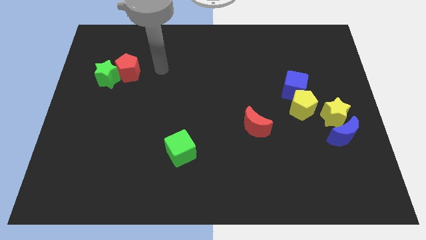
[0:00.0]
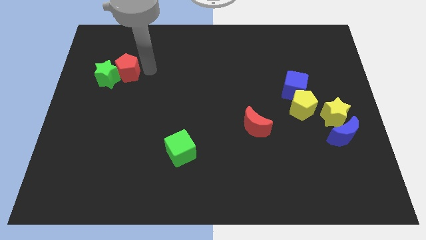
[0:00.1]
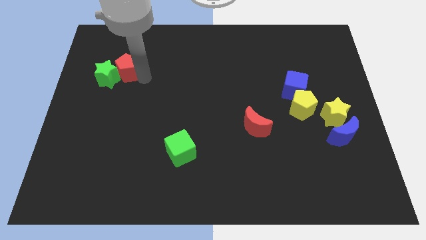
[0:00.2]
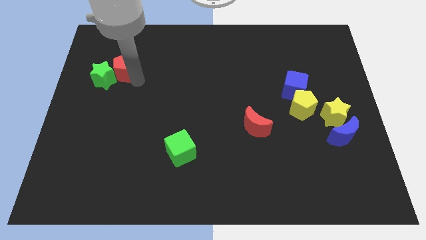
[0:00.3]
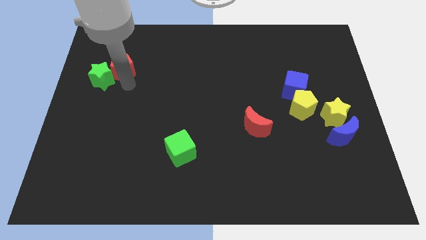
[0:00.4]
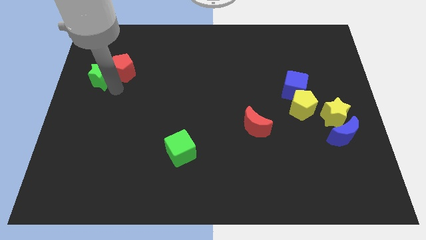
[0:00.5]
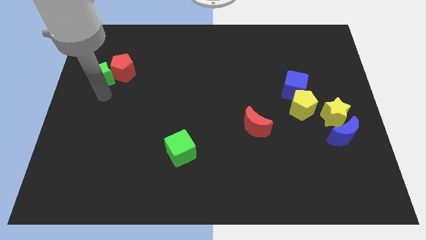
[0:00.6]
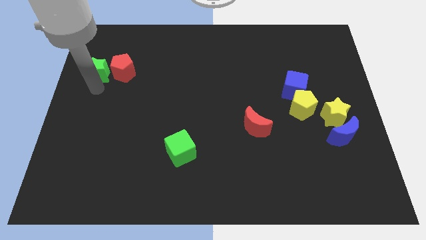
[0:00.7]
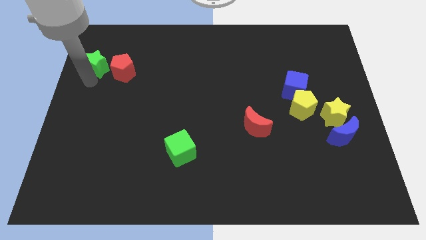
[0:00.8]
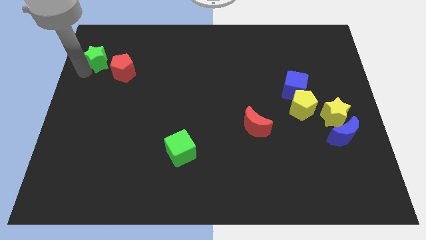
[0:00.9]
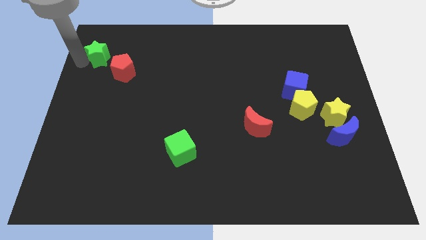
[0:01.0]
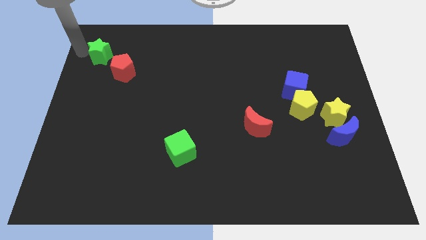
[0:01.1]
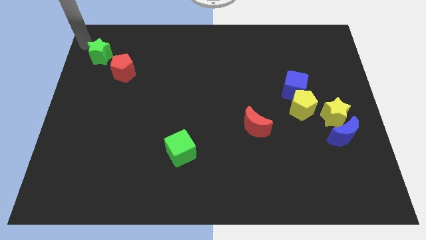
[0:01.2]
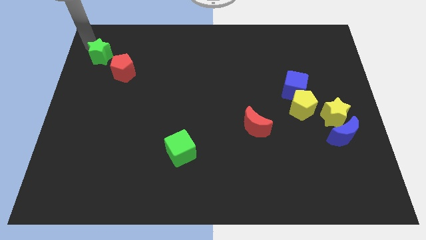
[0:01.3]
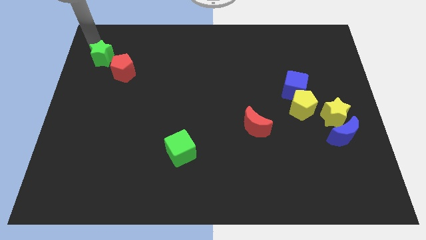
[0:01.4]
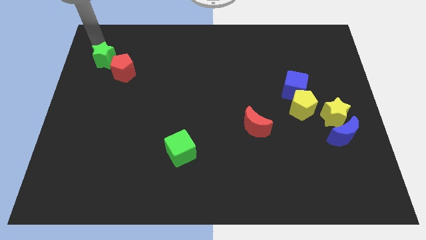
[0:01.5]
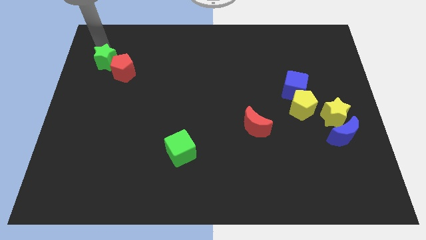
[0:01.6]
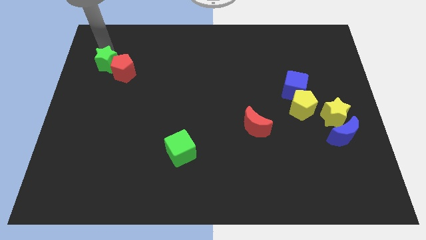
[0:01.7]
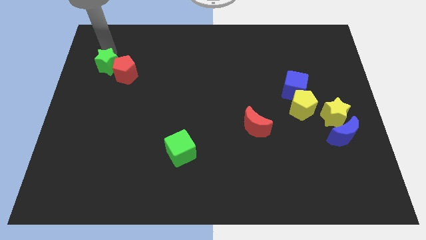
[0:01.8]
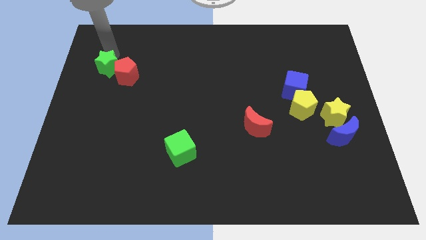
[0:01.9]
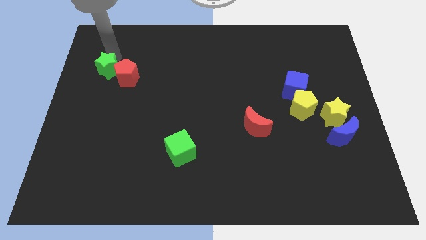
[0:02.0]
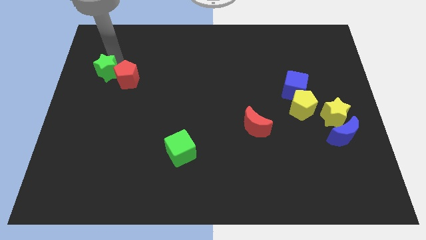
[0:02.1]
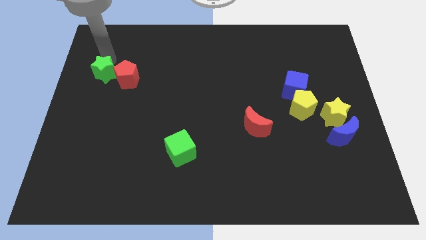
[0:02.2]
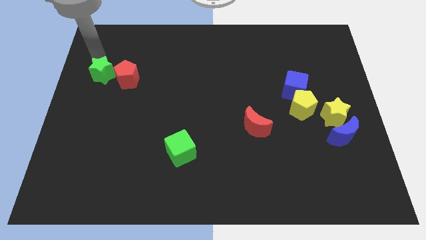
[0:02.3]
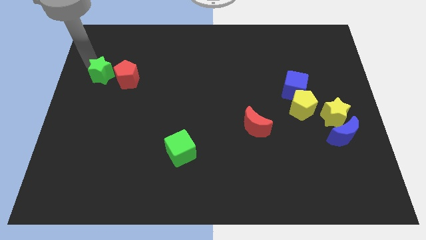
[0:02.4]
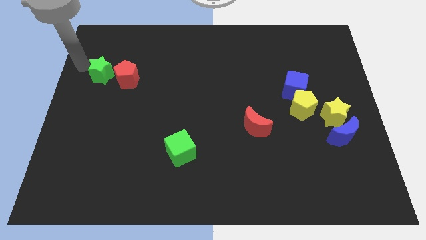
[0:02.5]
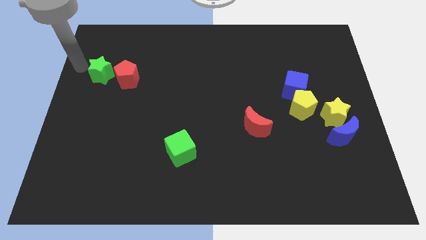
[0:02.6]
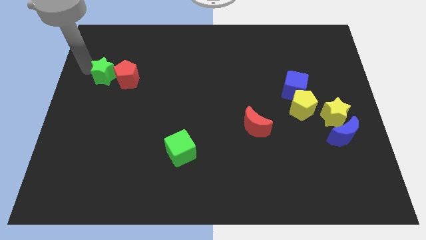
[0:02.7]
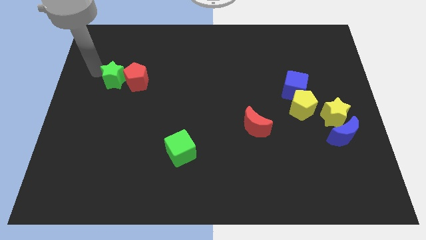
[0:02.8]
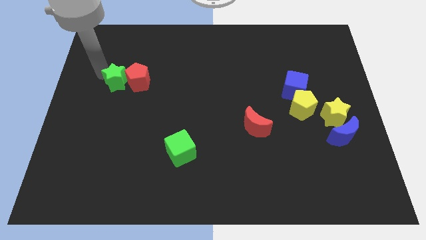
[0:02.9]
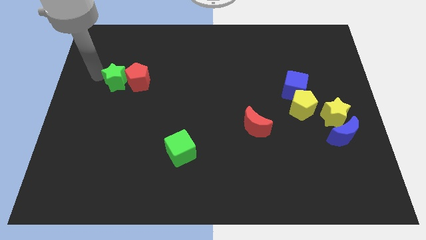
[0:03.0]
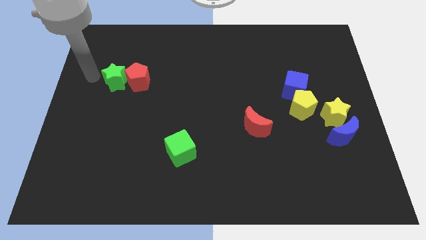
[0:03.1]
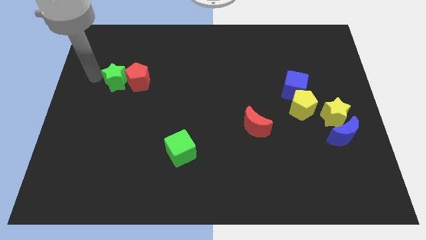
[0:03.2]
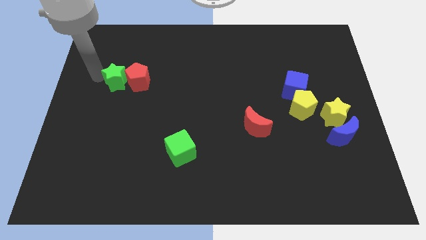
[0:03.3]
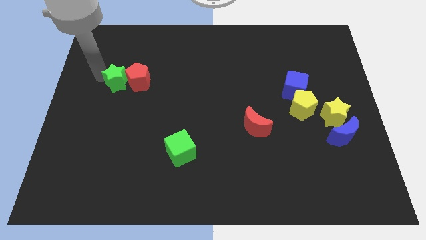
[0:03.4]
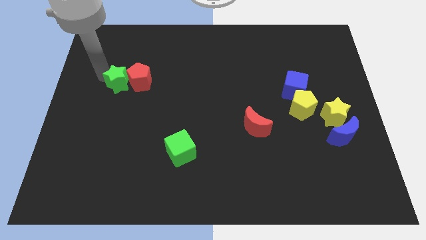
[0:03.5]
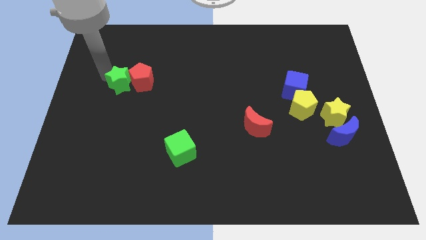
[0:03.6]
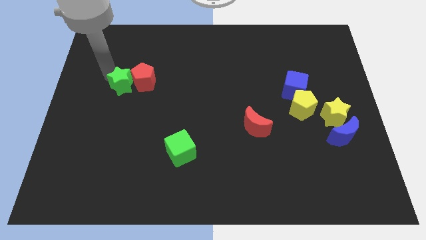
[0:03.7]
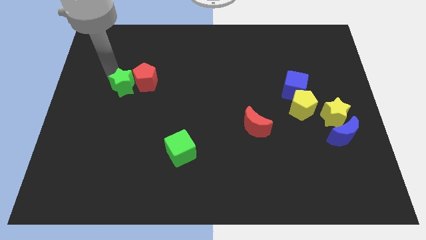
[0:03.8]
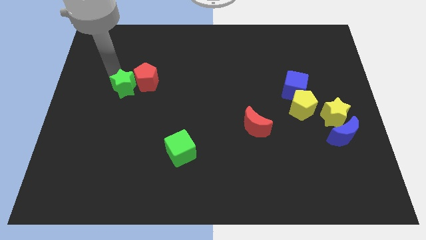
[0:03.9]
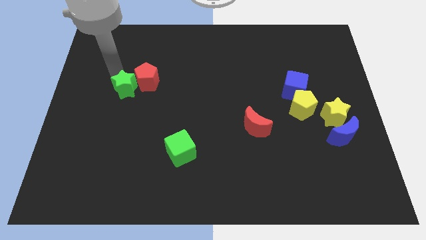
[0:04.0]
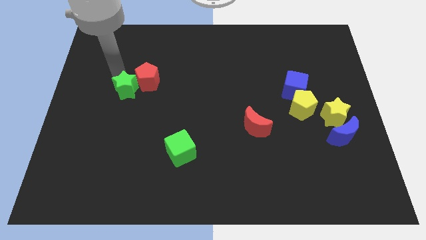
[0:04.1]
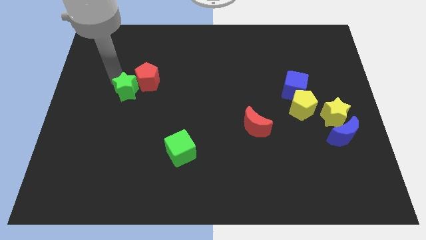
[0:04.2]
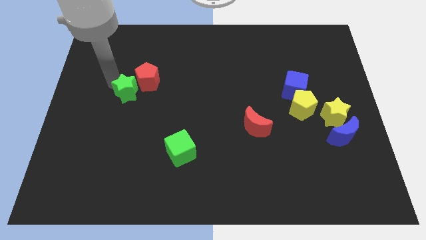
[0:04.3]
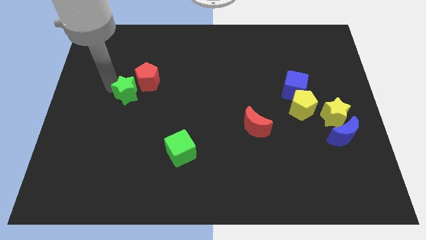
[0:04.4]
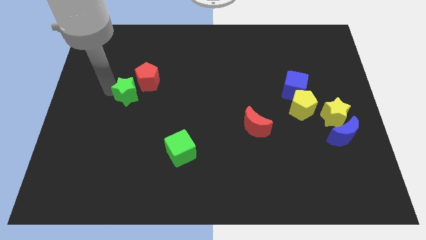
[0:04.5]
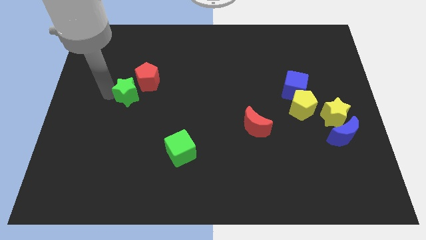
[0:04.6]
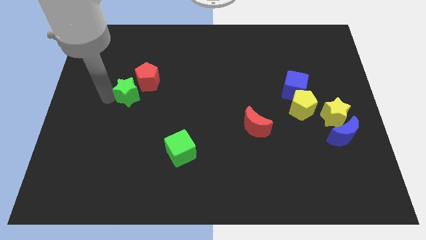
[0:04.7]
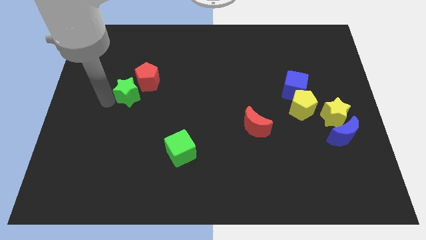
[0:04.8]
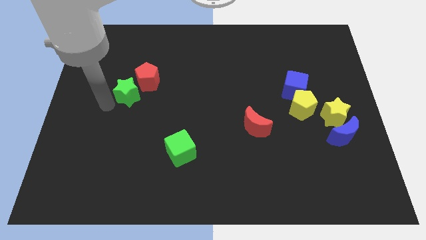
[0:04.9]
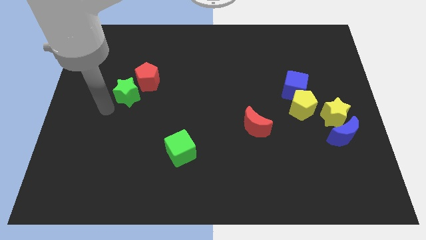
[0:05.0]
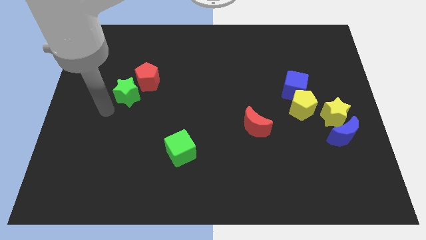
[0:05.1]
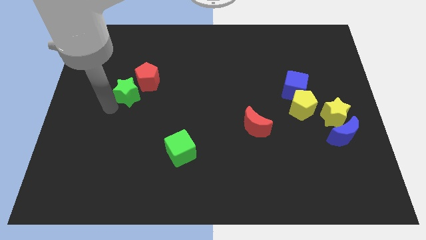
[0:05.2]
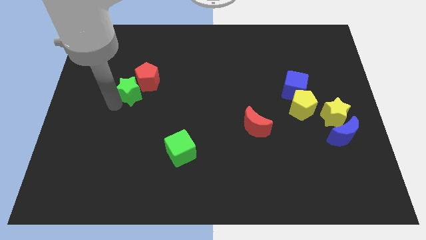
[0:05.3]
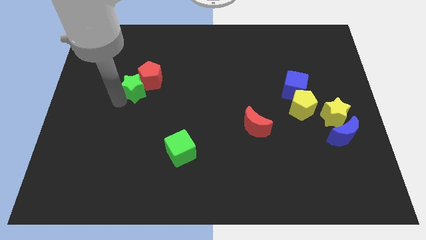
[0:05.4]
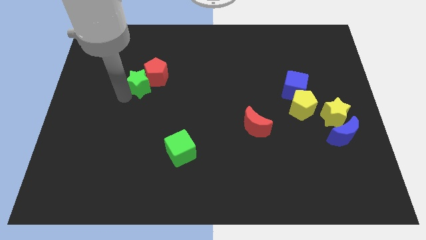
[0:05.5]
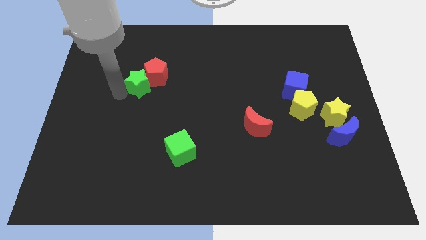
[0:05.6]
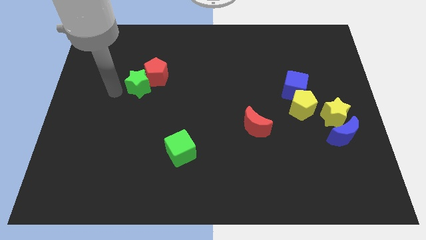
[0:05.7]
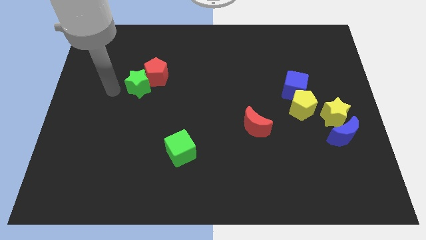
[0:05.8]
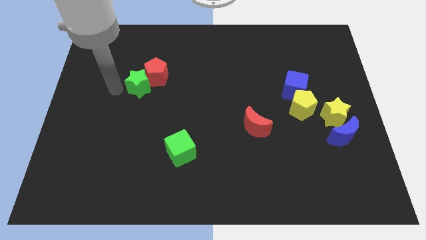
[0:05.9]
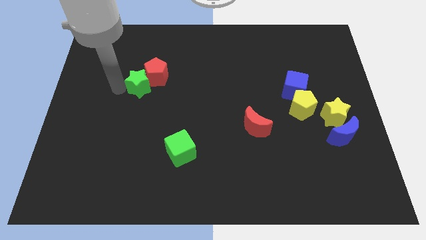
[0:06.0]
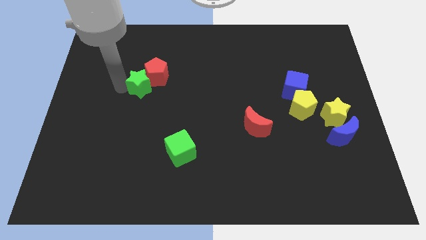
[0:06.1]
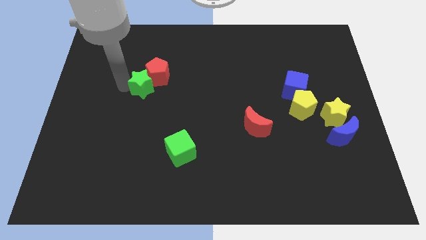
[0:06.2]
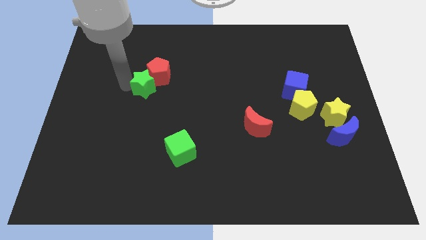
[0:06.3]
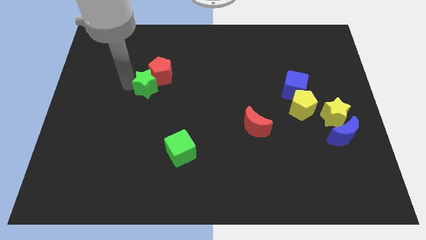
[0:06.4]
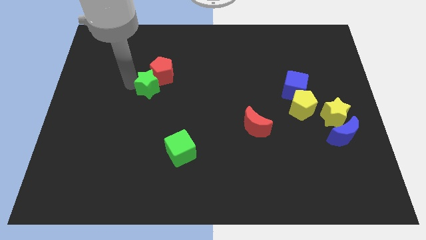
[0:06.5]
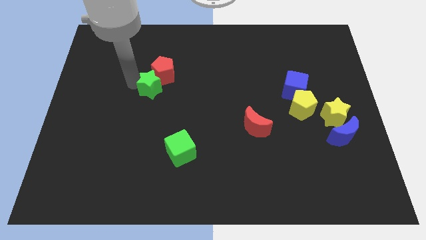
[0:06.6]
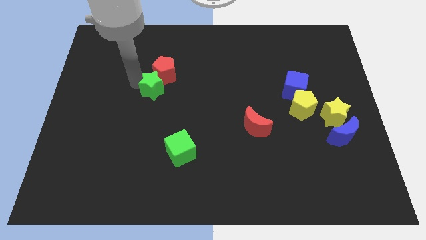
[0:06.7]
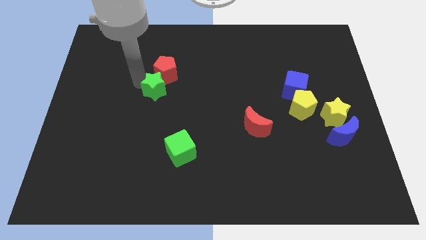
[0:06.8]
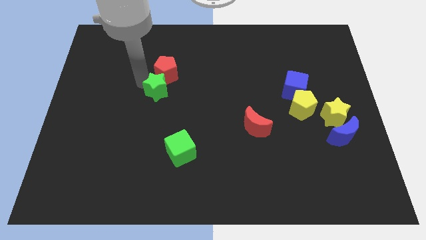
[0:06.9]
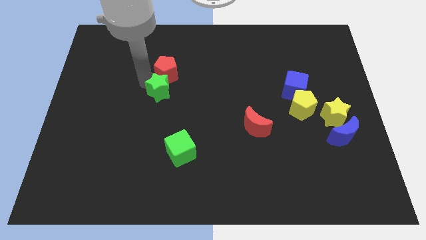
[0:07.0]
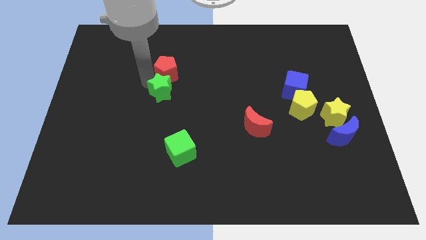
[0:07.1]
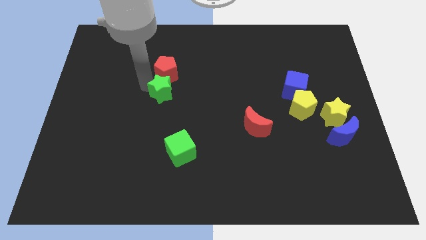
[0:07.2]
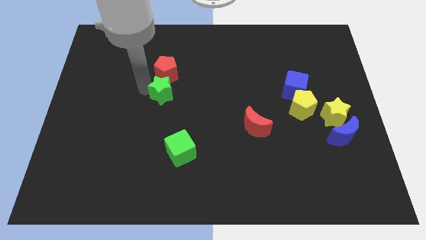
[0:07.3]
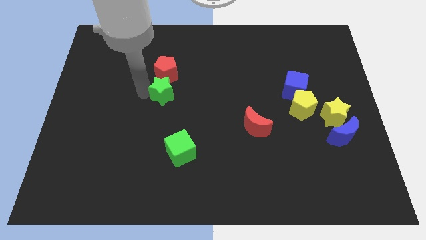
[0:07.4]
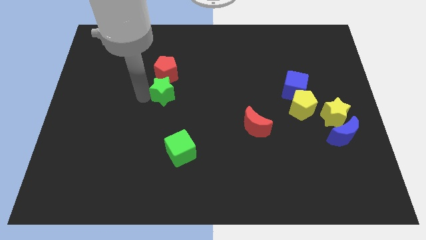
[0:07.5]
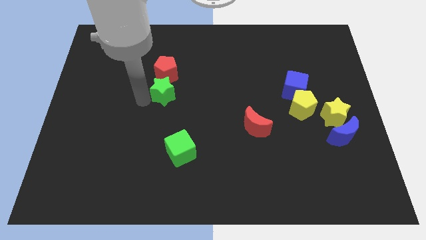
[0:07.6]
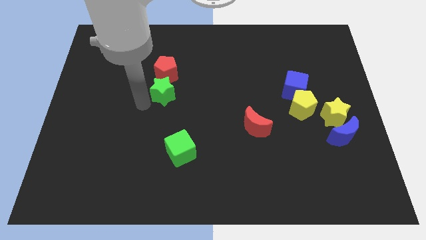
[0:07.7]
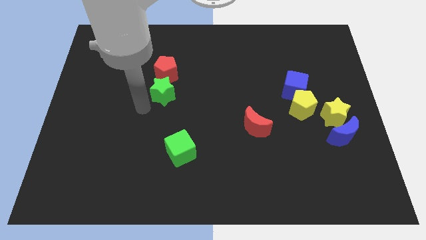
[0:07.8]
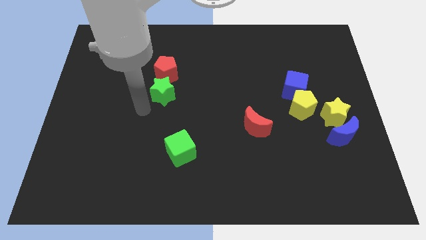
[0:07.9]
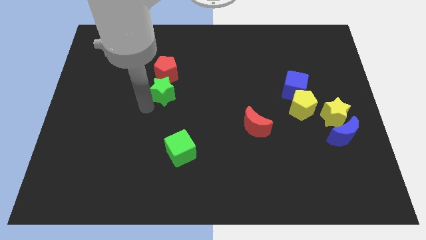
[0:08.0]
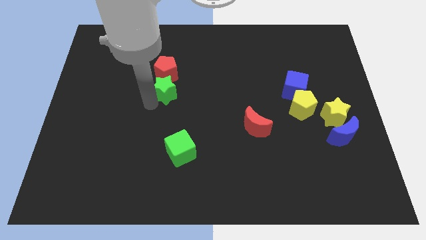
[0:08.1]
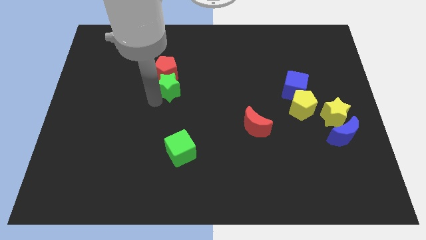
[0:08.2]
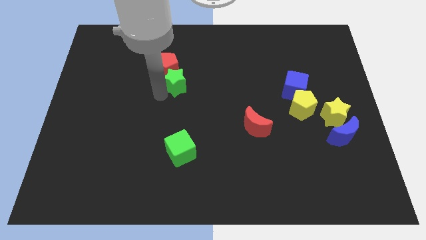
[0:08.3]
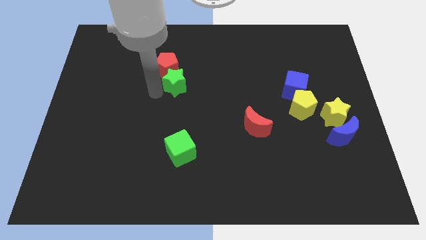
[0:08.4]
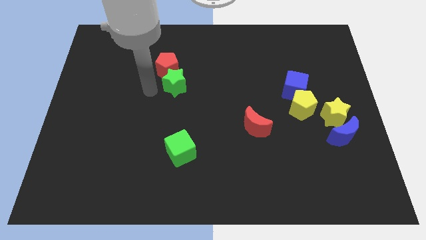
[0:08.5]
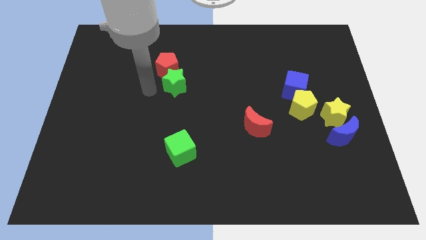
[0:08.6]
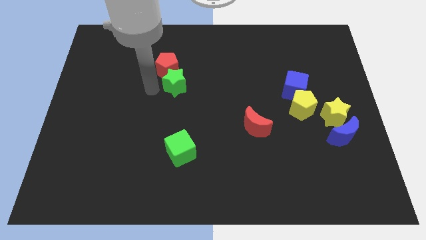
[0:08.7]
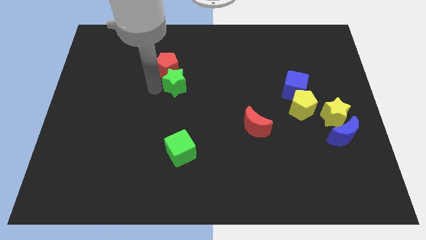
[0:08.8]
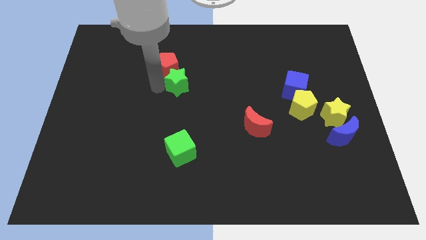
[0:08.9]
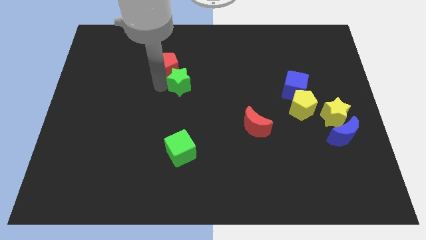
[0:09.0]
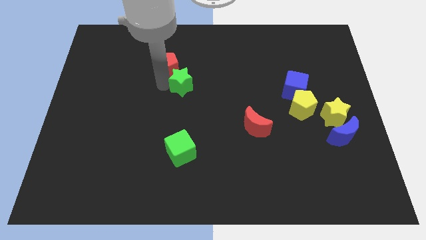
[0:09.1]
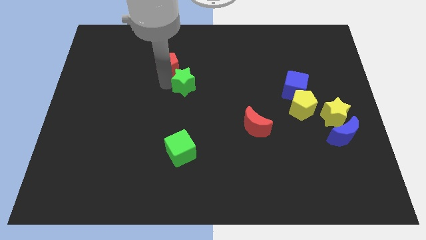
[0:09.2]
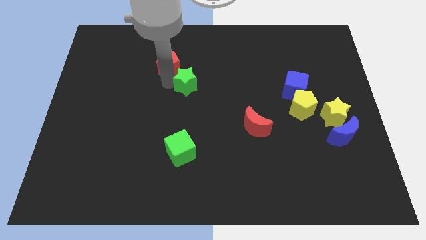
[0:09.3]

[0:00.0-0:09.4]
push the green star right
